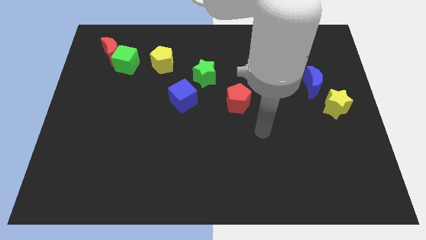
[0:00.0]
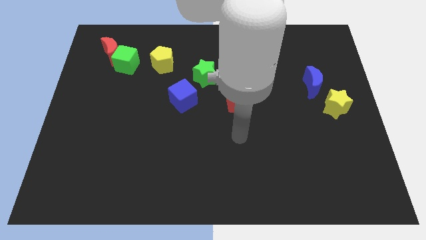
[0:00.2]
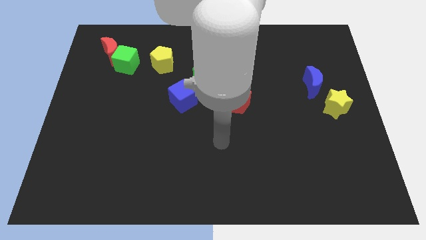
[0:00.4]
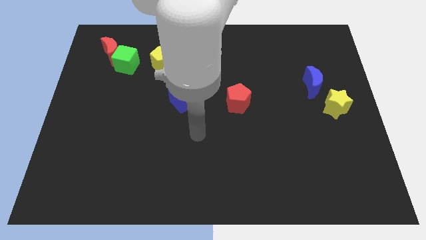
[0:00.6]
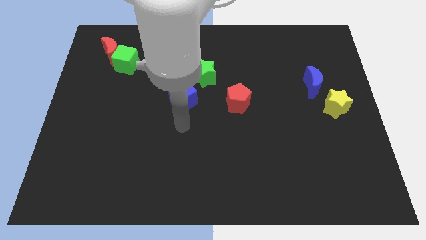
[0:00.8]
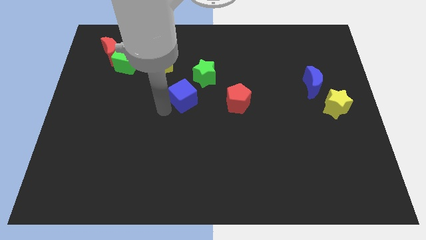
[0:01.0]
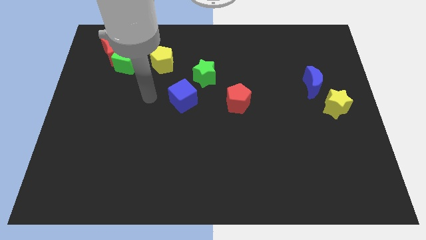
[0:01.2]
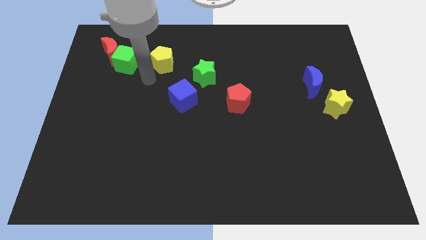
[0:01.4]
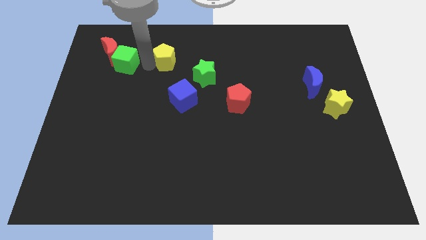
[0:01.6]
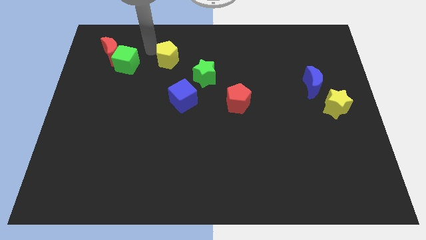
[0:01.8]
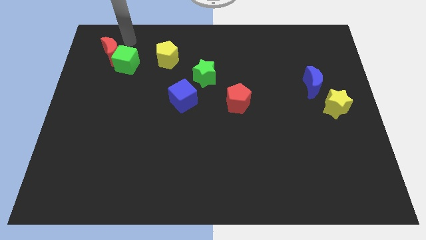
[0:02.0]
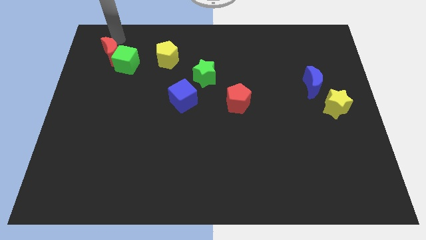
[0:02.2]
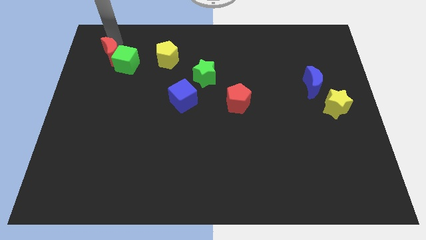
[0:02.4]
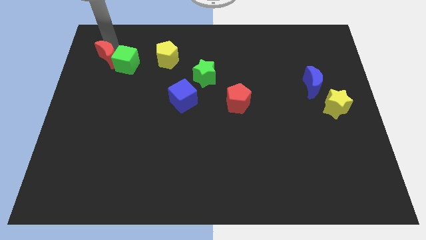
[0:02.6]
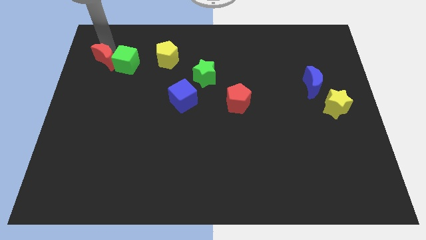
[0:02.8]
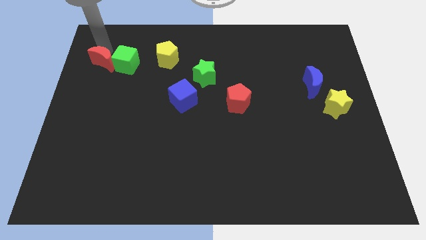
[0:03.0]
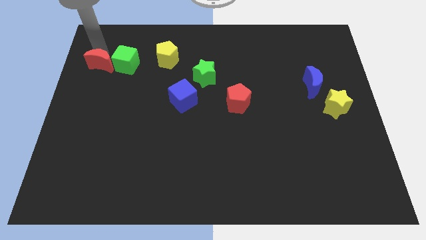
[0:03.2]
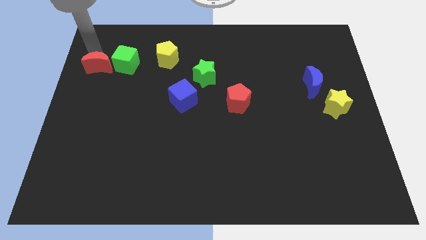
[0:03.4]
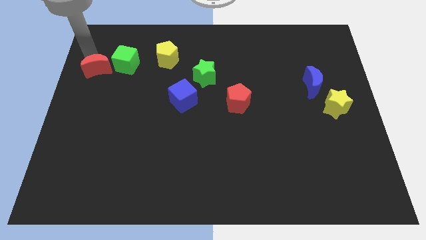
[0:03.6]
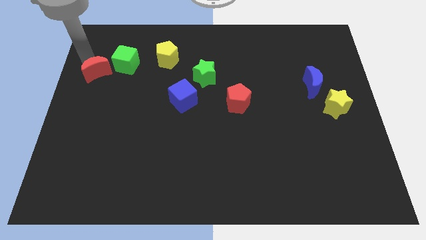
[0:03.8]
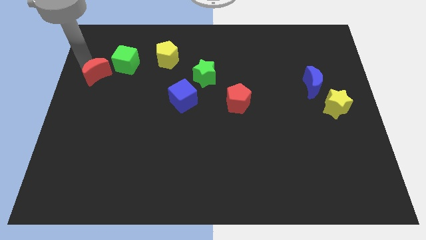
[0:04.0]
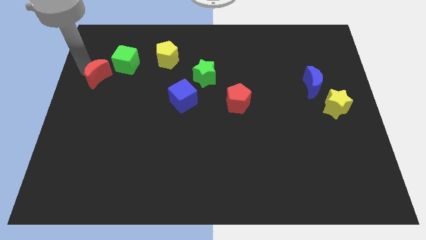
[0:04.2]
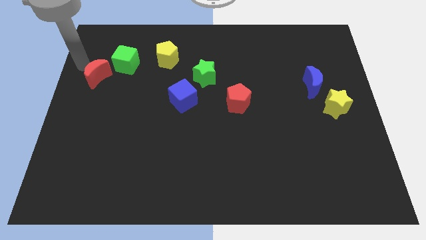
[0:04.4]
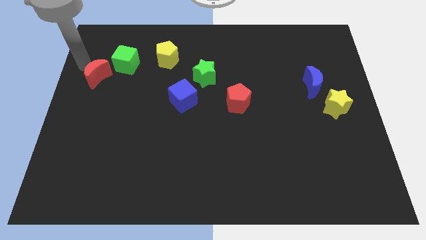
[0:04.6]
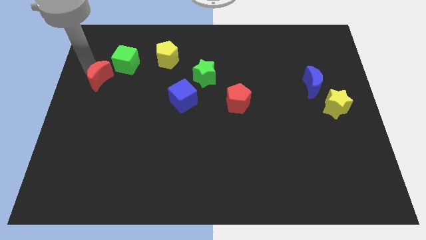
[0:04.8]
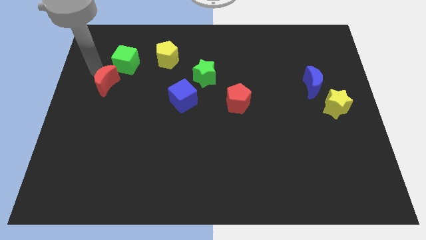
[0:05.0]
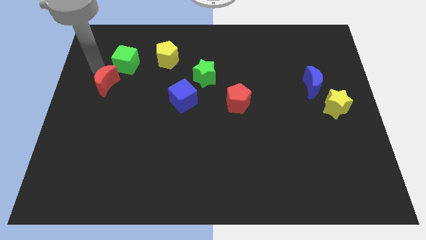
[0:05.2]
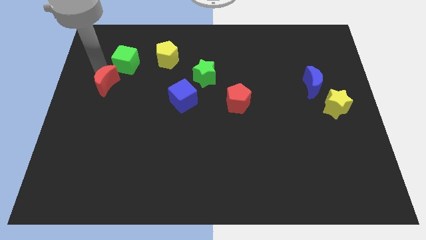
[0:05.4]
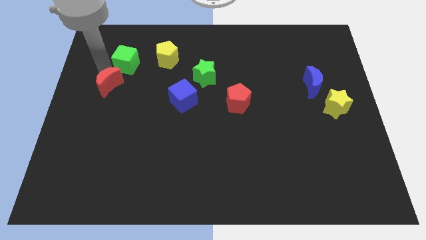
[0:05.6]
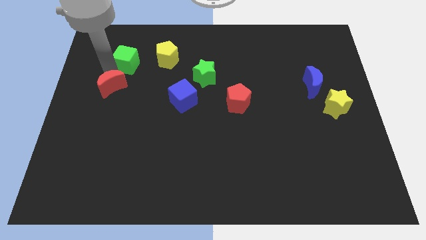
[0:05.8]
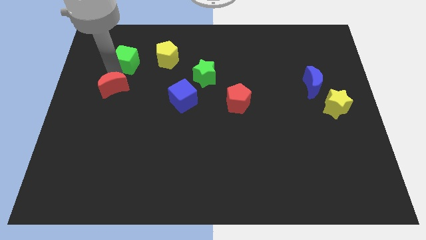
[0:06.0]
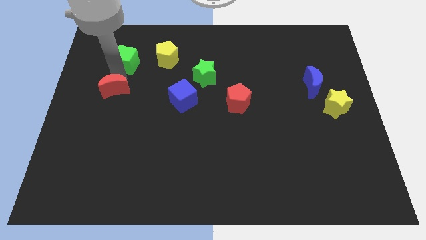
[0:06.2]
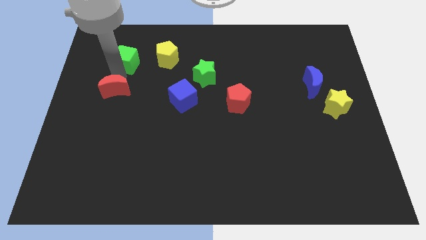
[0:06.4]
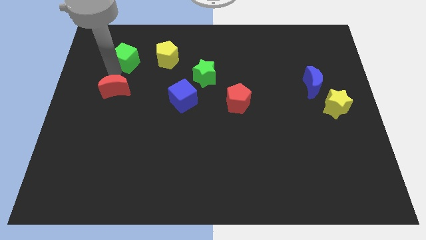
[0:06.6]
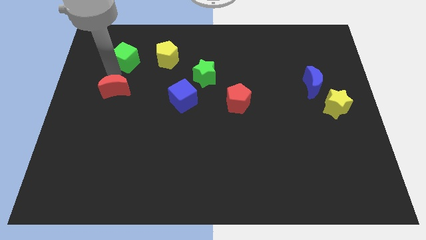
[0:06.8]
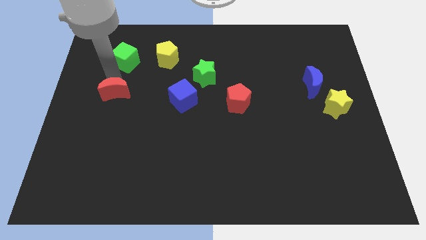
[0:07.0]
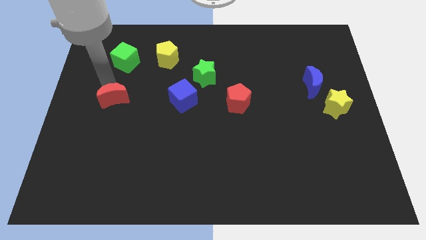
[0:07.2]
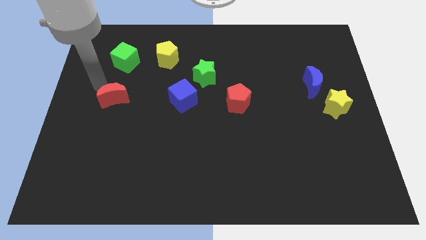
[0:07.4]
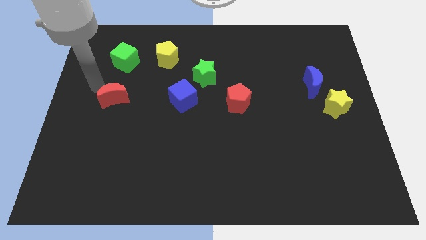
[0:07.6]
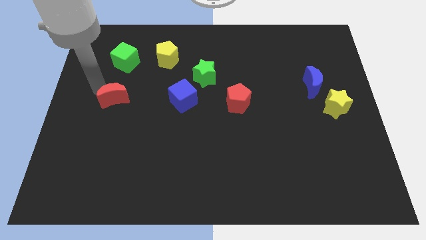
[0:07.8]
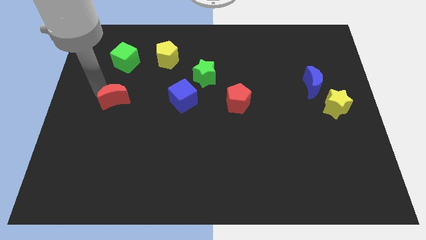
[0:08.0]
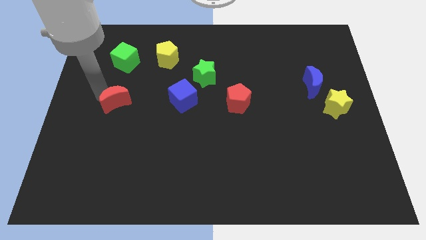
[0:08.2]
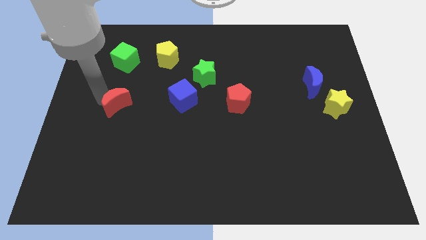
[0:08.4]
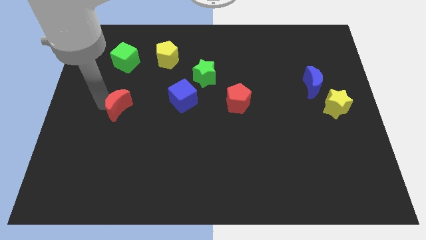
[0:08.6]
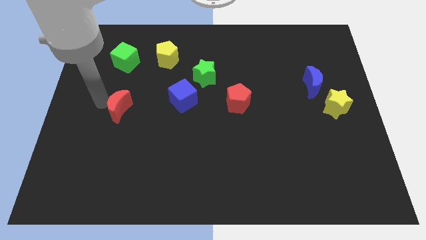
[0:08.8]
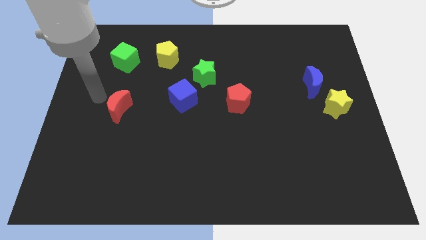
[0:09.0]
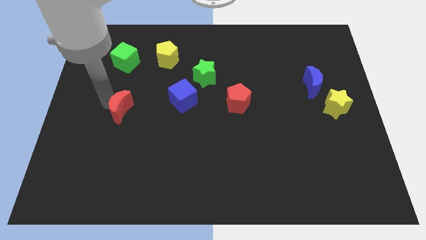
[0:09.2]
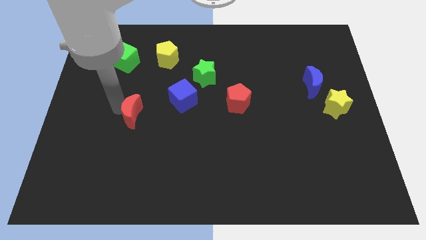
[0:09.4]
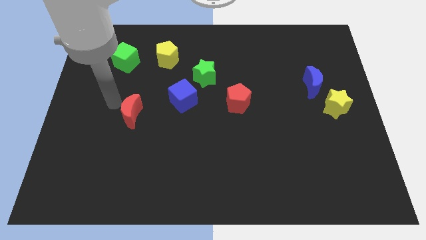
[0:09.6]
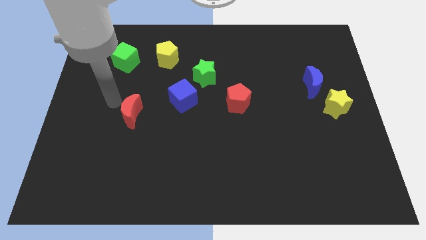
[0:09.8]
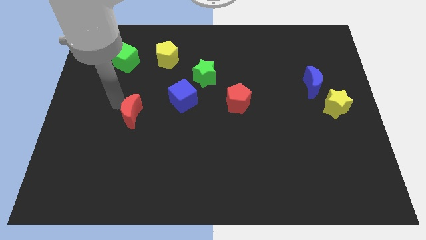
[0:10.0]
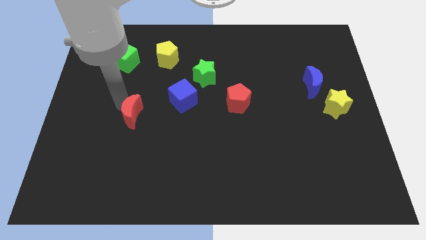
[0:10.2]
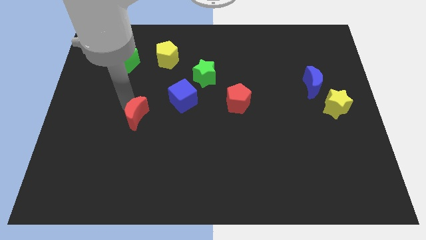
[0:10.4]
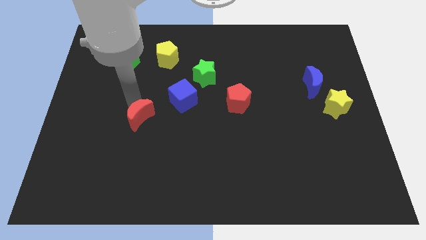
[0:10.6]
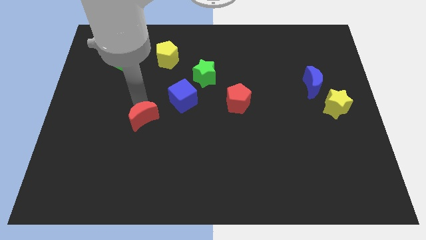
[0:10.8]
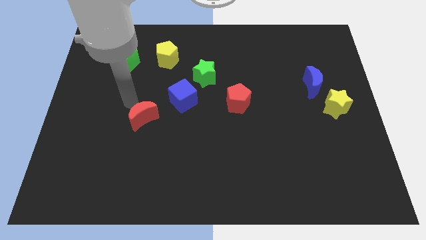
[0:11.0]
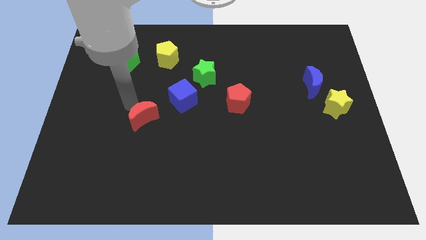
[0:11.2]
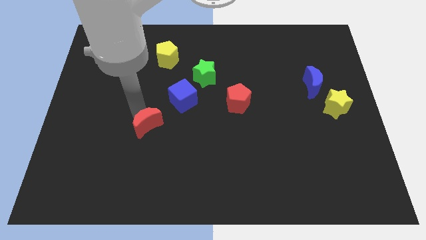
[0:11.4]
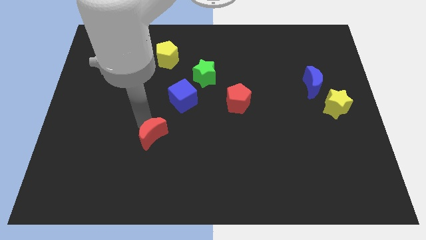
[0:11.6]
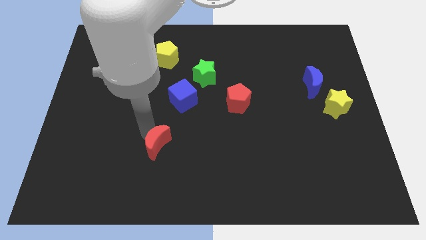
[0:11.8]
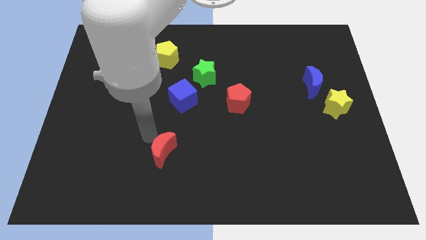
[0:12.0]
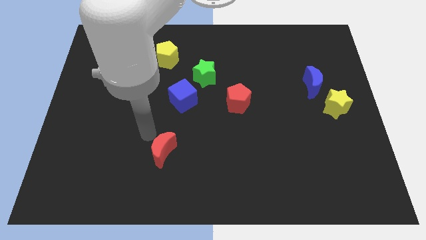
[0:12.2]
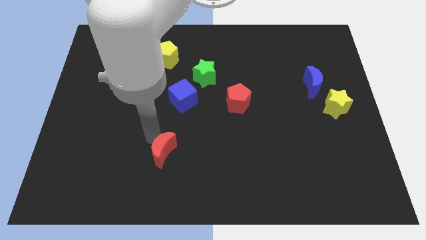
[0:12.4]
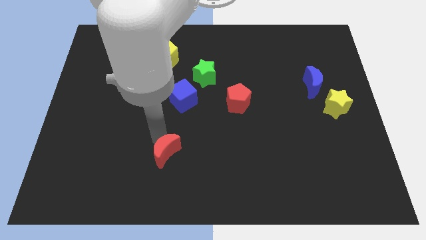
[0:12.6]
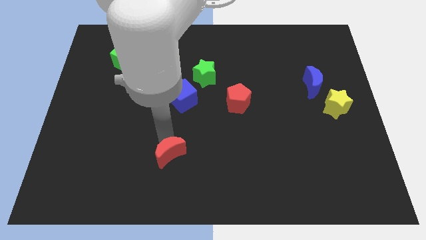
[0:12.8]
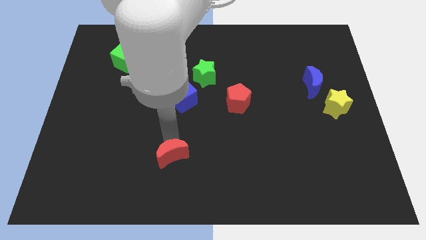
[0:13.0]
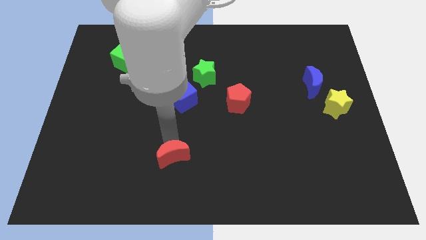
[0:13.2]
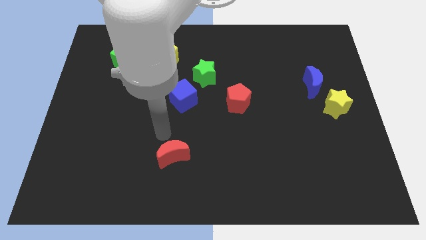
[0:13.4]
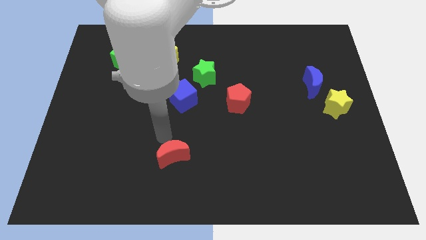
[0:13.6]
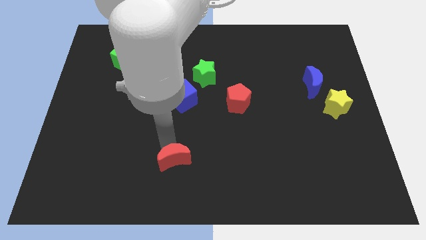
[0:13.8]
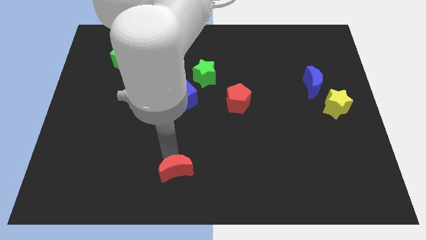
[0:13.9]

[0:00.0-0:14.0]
push the red moon to the bottom
